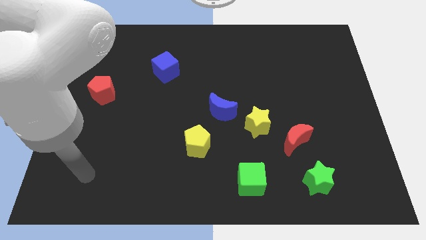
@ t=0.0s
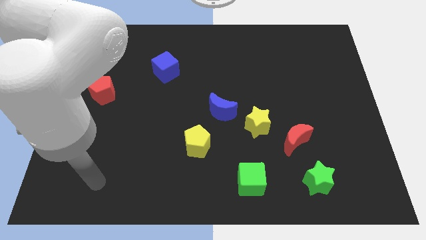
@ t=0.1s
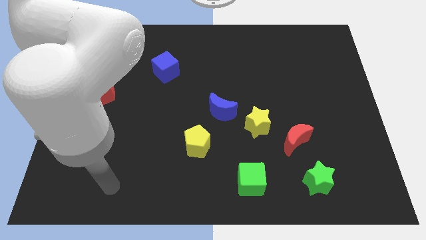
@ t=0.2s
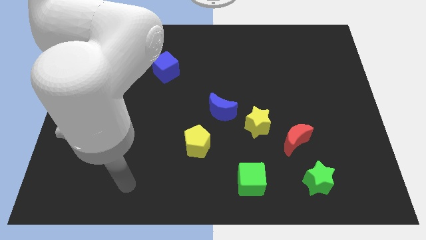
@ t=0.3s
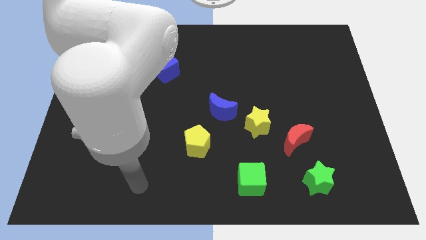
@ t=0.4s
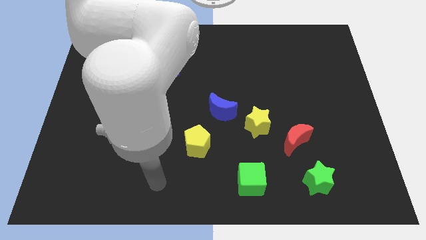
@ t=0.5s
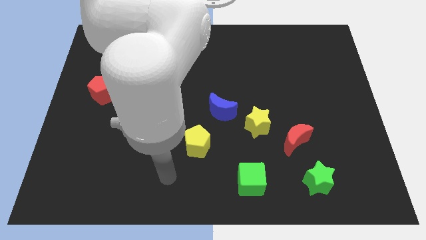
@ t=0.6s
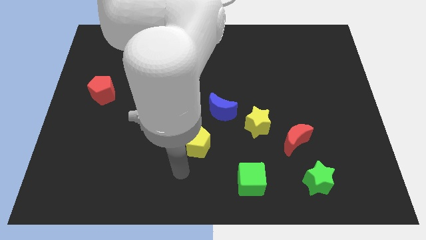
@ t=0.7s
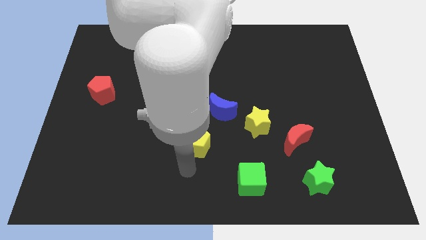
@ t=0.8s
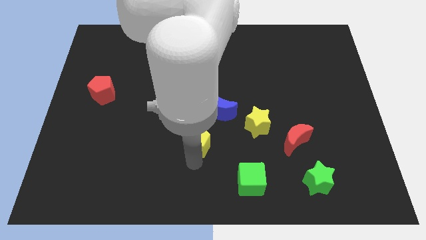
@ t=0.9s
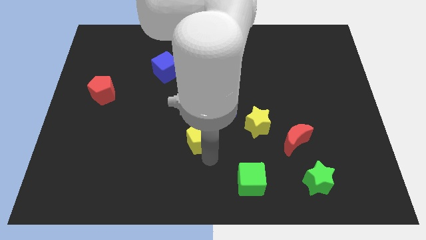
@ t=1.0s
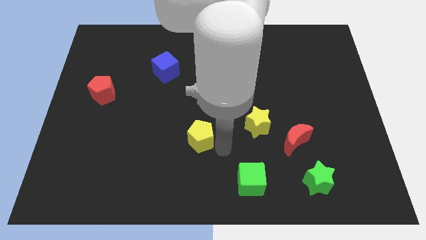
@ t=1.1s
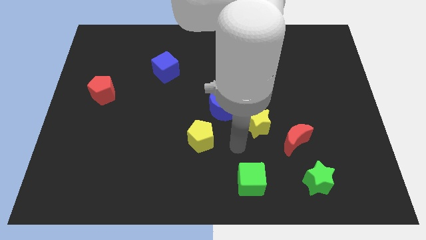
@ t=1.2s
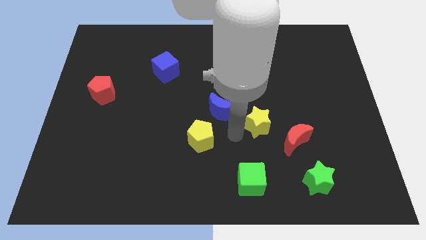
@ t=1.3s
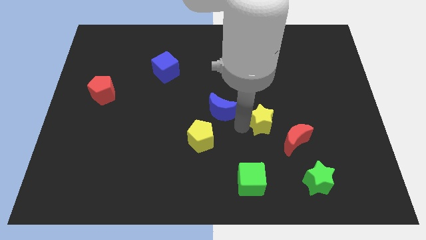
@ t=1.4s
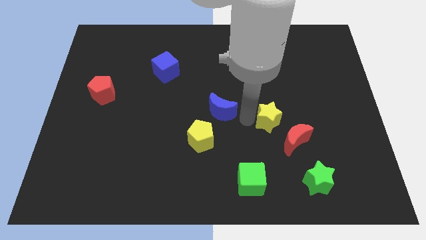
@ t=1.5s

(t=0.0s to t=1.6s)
move the blue moon away from the yellow star

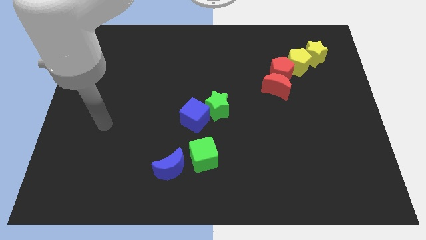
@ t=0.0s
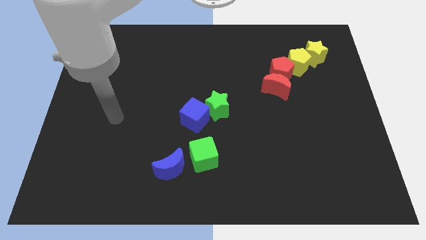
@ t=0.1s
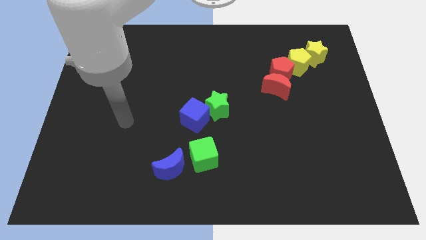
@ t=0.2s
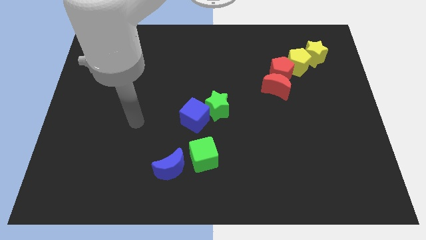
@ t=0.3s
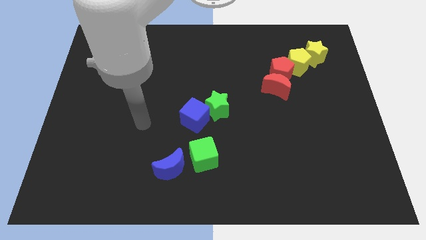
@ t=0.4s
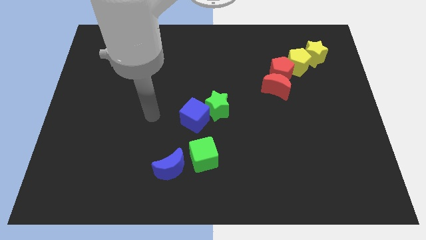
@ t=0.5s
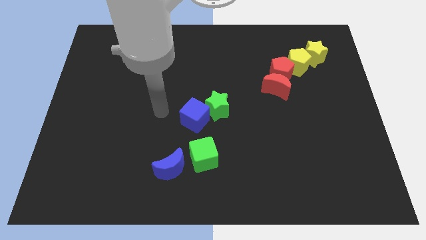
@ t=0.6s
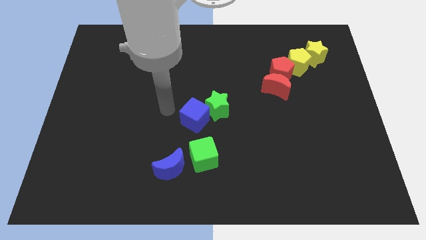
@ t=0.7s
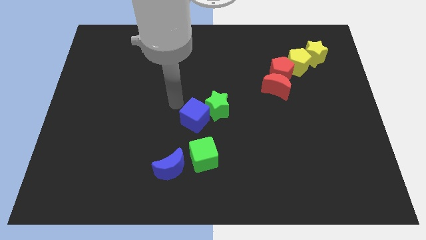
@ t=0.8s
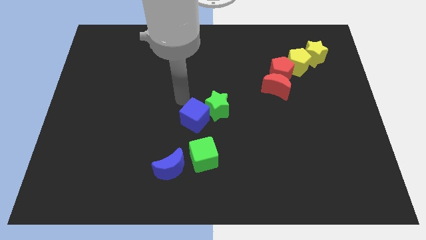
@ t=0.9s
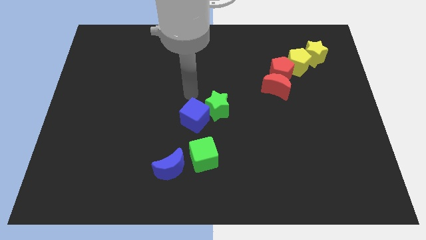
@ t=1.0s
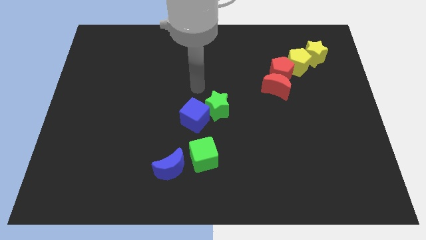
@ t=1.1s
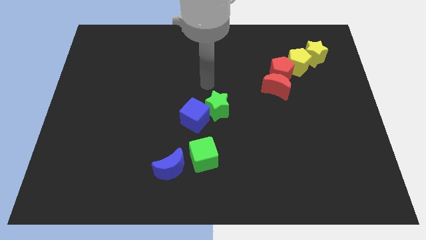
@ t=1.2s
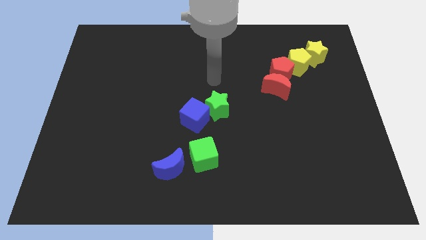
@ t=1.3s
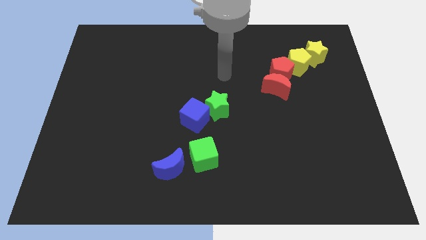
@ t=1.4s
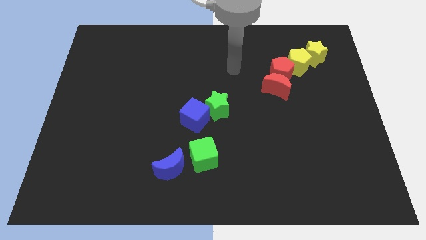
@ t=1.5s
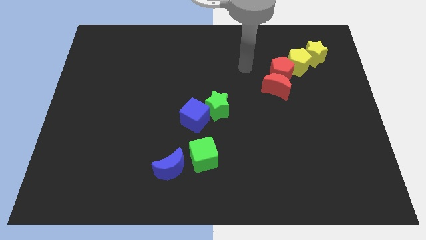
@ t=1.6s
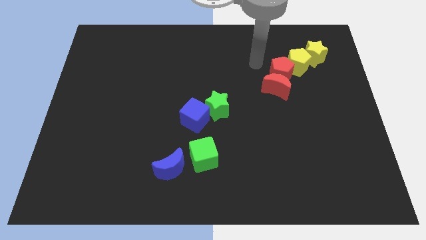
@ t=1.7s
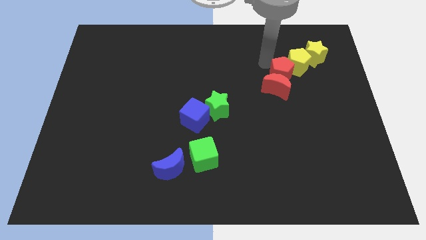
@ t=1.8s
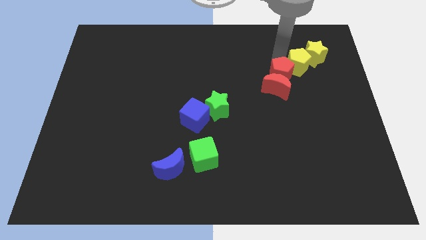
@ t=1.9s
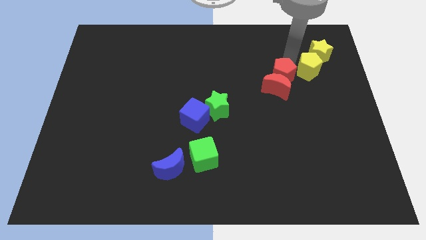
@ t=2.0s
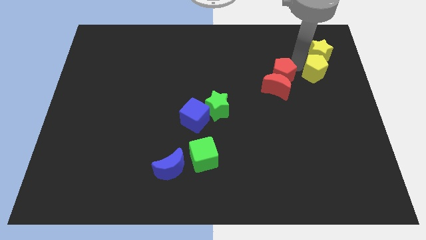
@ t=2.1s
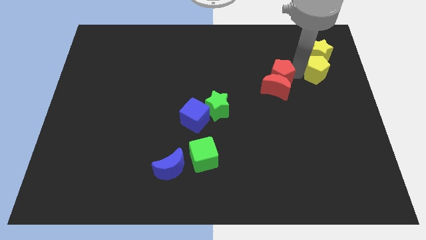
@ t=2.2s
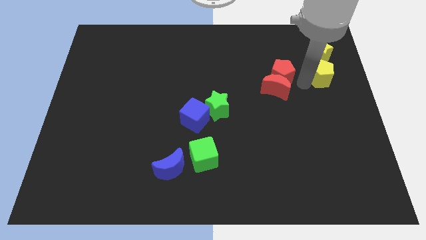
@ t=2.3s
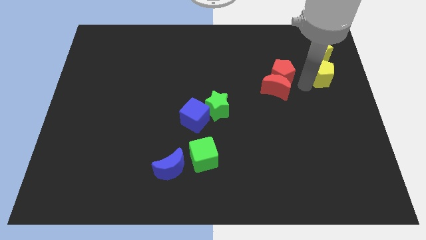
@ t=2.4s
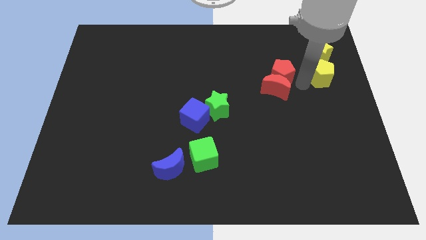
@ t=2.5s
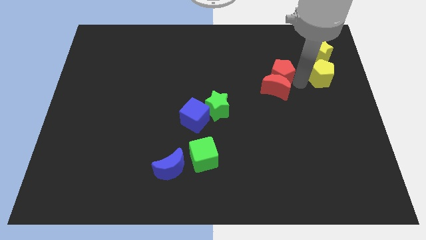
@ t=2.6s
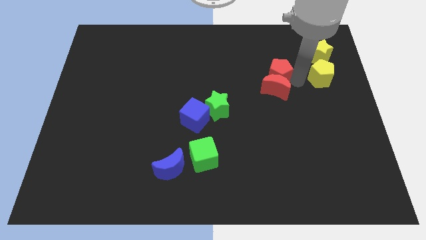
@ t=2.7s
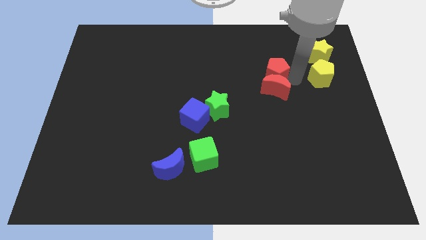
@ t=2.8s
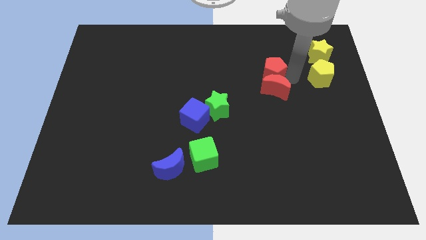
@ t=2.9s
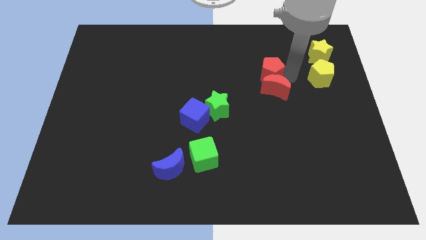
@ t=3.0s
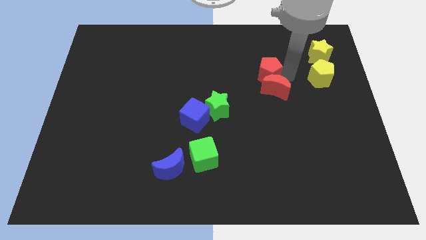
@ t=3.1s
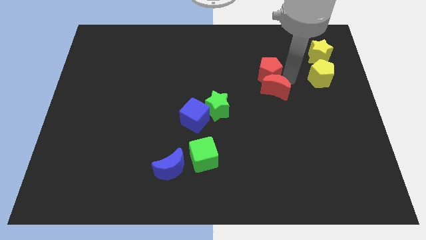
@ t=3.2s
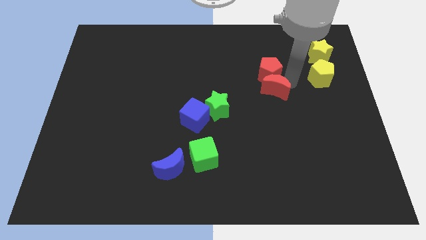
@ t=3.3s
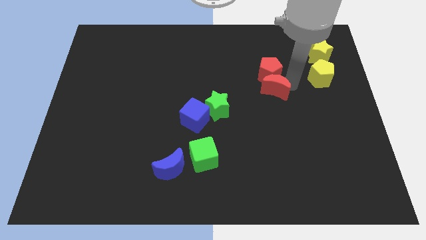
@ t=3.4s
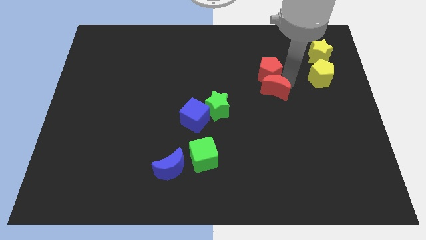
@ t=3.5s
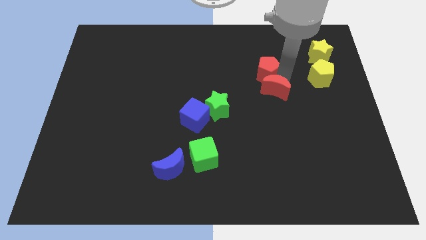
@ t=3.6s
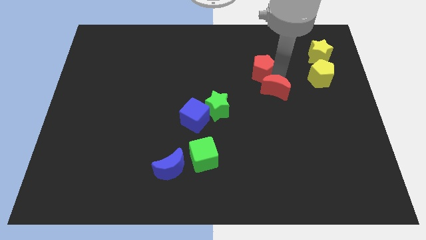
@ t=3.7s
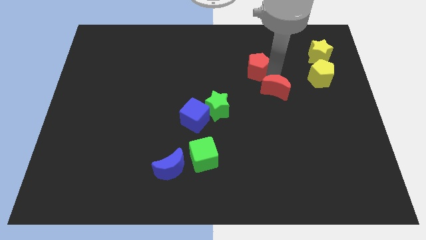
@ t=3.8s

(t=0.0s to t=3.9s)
separate the red pentagon from the red moon and yellow pentagon

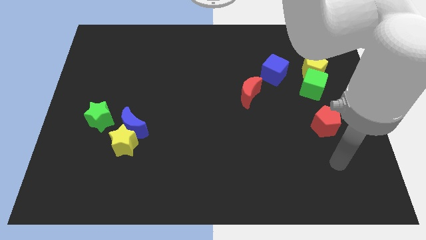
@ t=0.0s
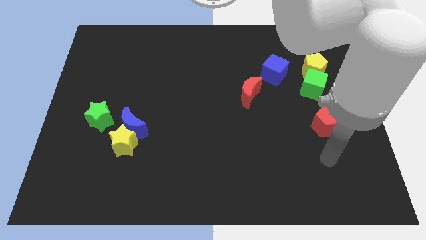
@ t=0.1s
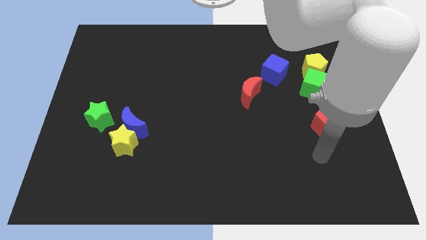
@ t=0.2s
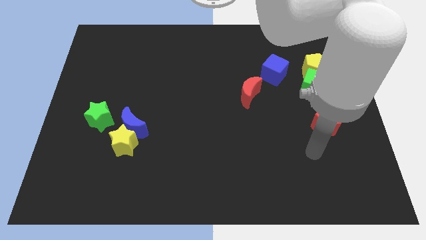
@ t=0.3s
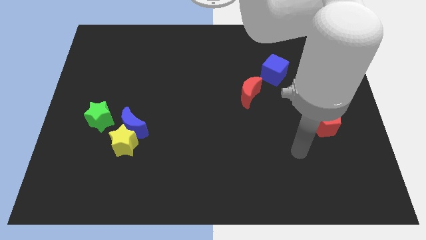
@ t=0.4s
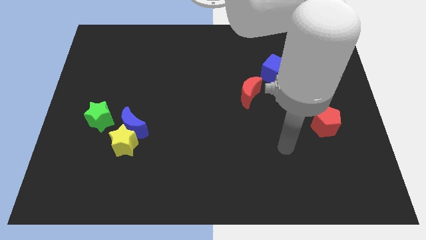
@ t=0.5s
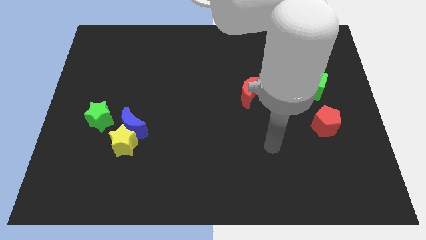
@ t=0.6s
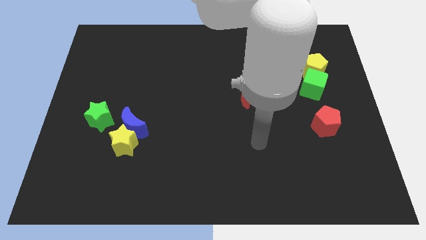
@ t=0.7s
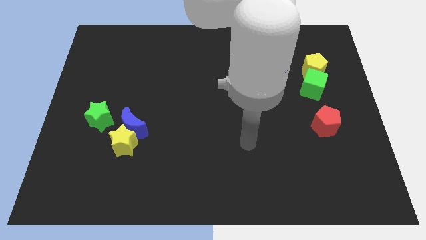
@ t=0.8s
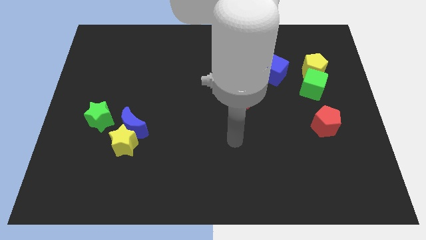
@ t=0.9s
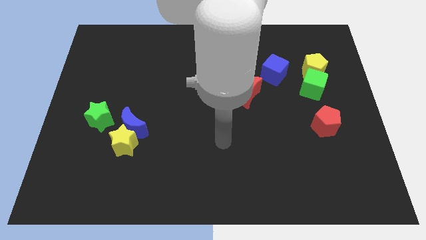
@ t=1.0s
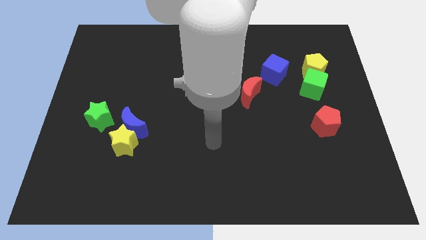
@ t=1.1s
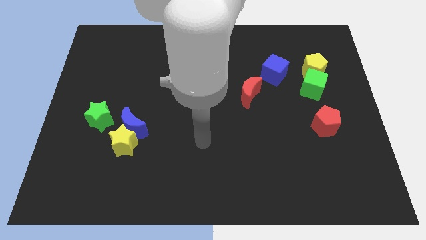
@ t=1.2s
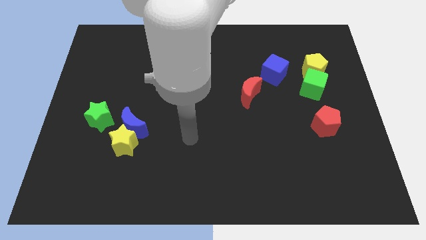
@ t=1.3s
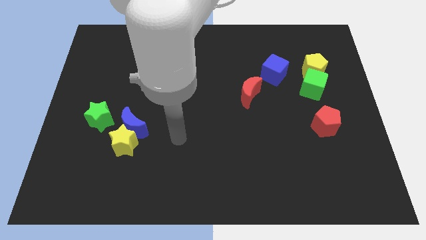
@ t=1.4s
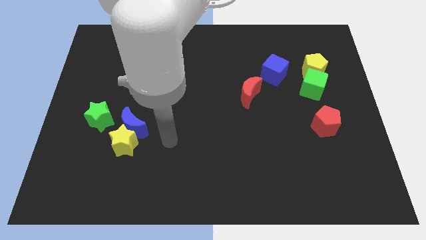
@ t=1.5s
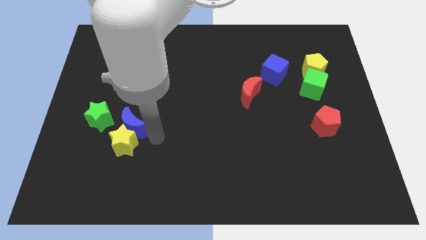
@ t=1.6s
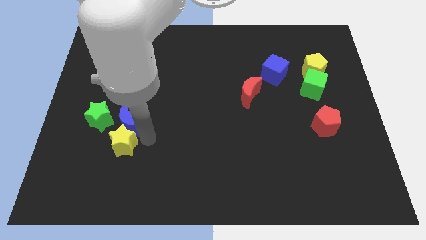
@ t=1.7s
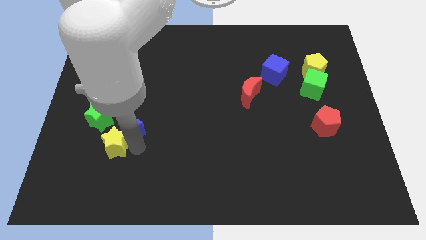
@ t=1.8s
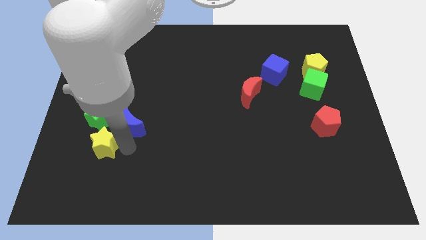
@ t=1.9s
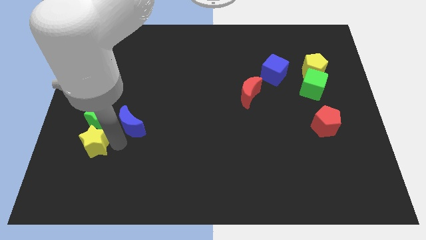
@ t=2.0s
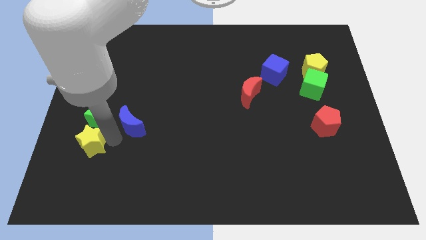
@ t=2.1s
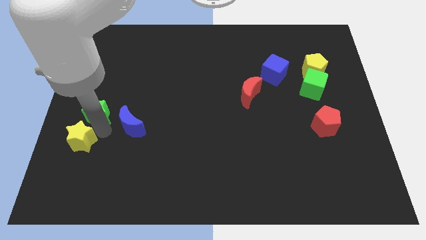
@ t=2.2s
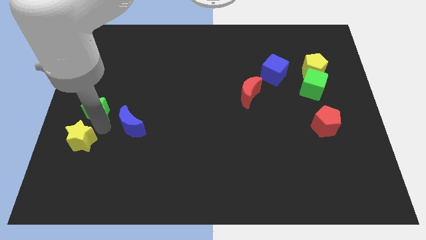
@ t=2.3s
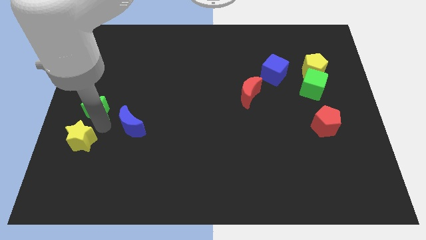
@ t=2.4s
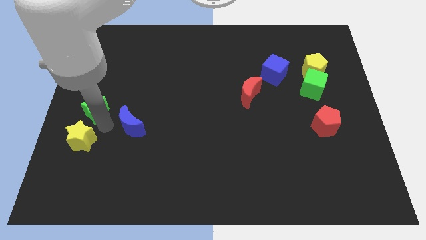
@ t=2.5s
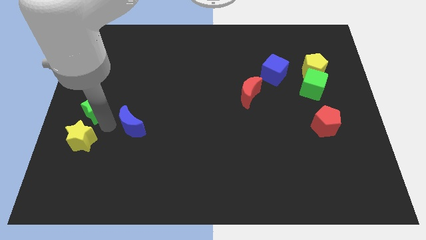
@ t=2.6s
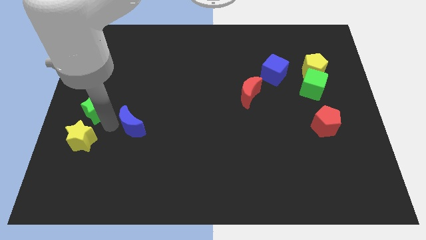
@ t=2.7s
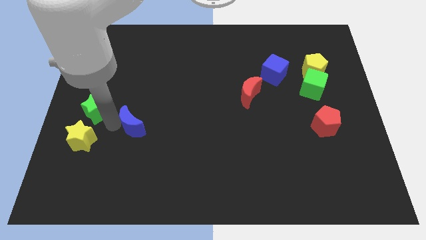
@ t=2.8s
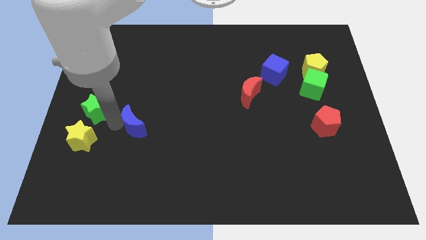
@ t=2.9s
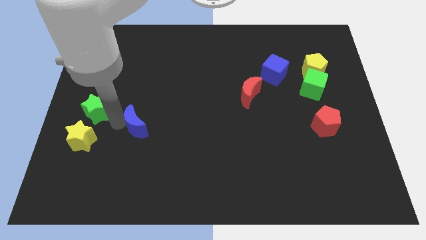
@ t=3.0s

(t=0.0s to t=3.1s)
separate the blue moon from the yellow star and green star

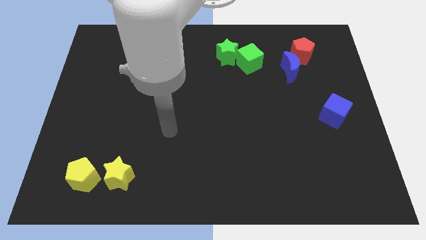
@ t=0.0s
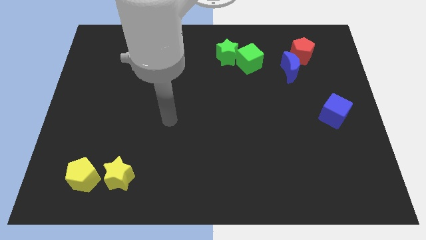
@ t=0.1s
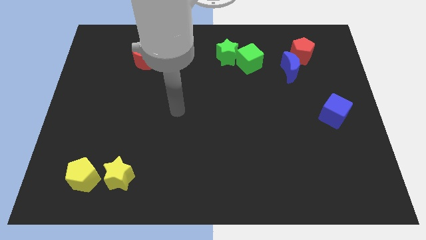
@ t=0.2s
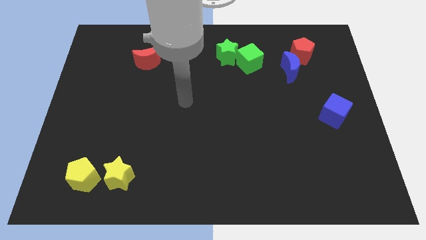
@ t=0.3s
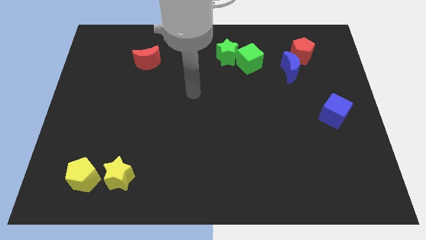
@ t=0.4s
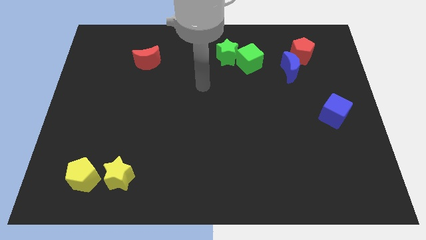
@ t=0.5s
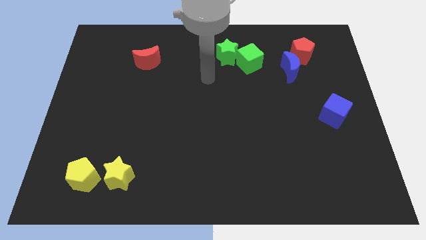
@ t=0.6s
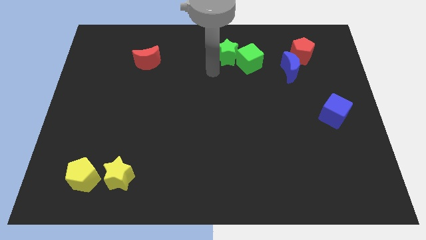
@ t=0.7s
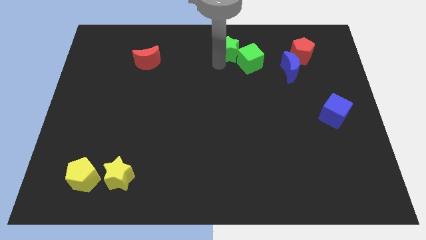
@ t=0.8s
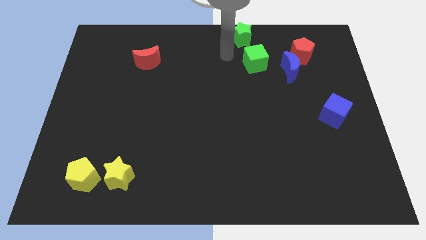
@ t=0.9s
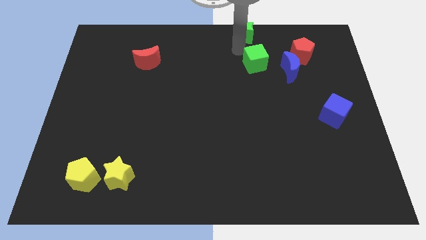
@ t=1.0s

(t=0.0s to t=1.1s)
separate the green cube from the green star
